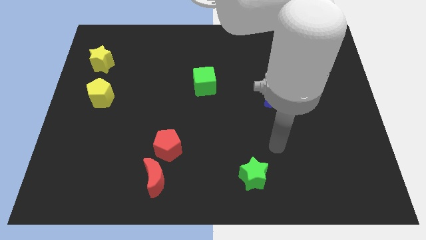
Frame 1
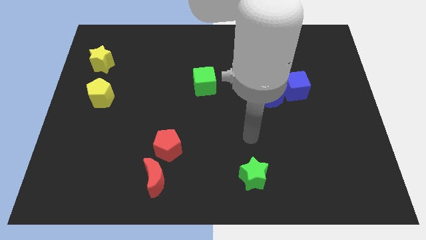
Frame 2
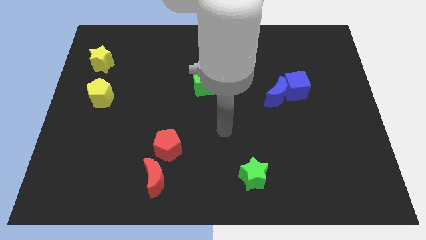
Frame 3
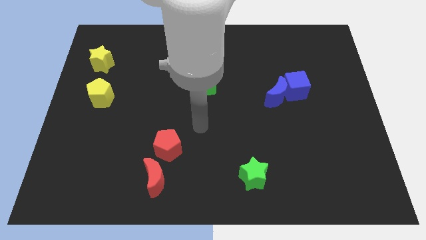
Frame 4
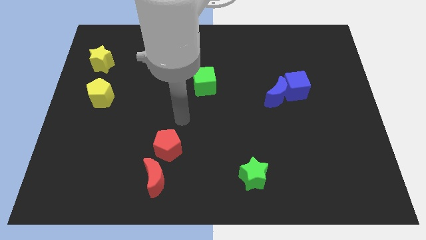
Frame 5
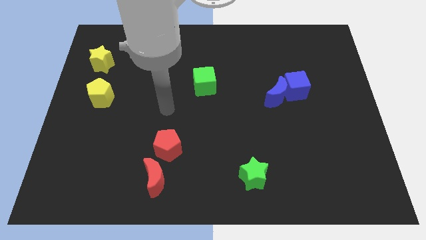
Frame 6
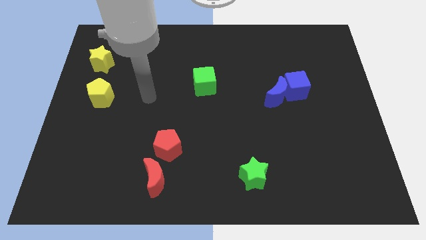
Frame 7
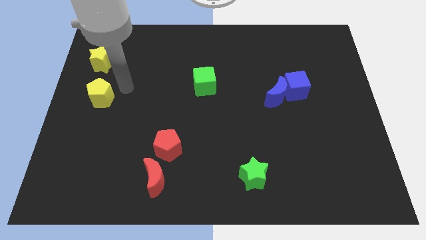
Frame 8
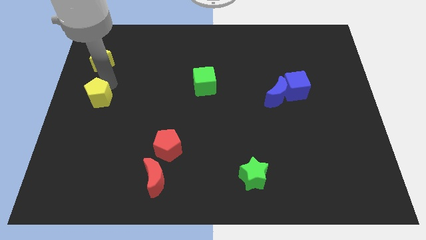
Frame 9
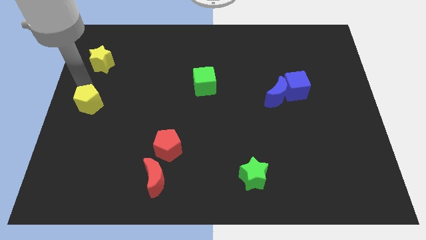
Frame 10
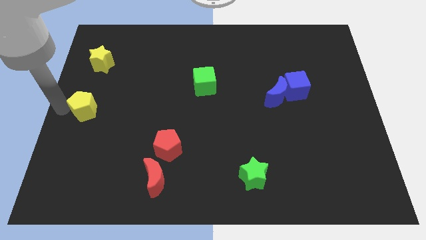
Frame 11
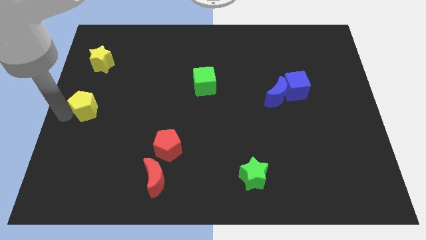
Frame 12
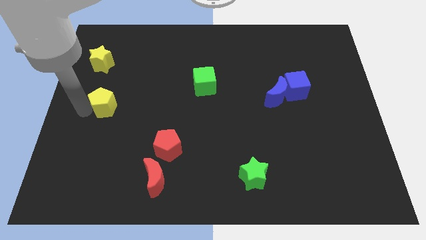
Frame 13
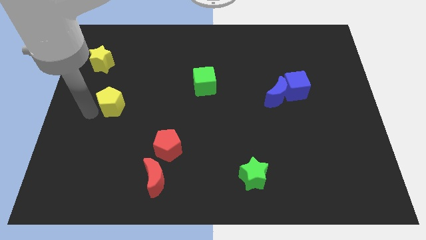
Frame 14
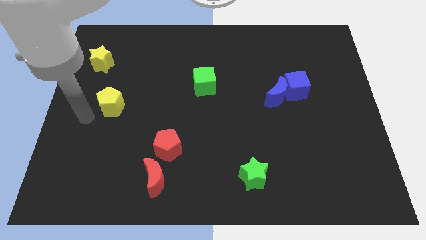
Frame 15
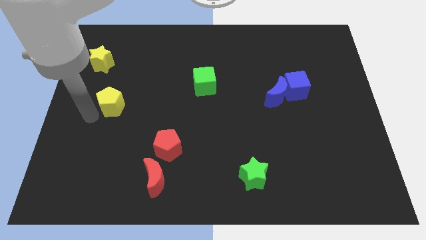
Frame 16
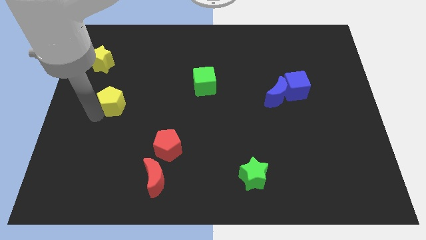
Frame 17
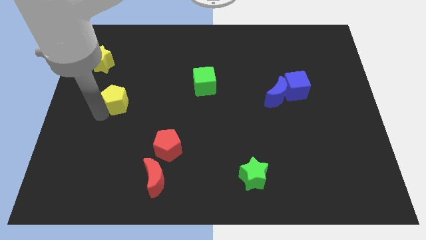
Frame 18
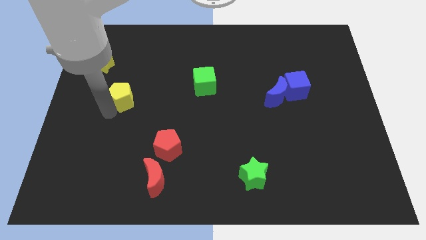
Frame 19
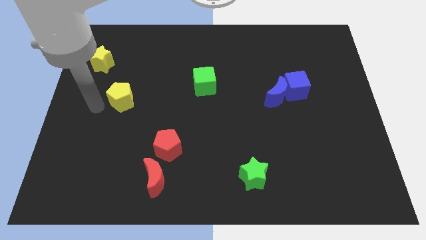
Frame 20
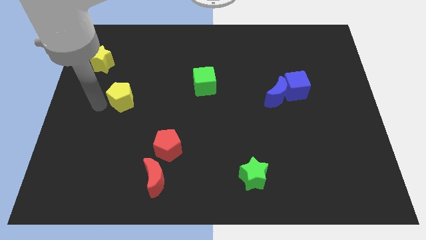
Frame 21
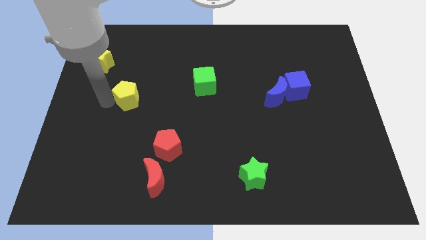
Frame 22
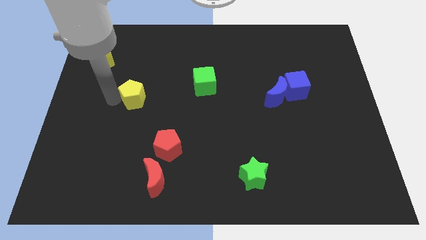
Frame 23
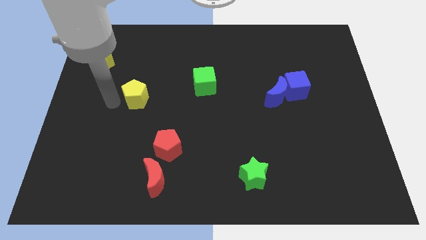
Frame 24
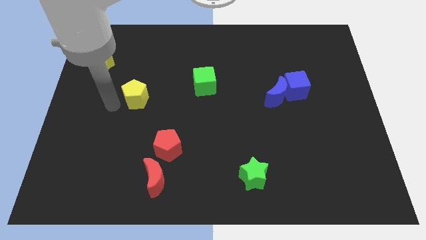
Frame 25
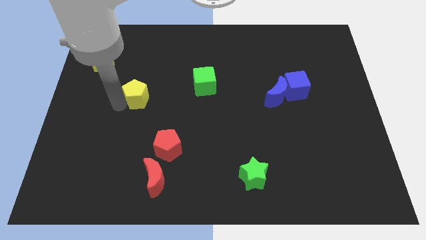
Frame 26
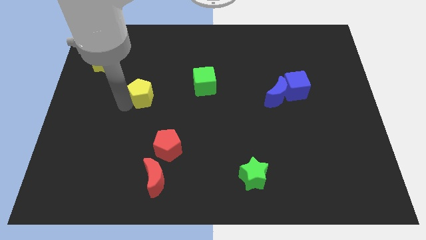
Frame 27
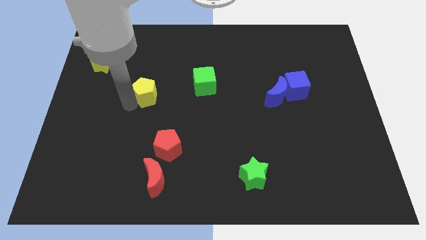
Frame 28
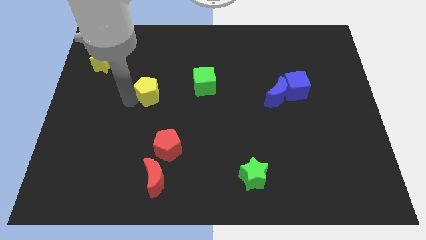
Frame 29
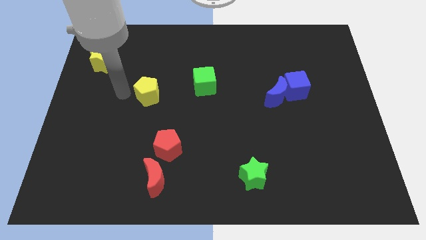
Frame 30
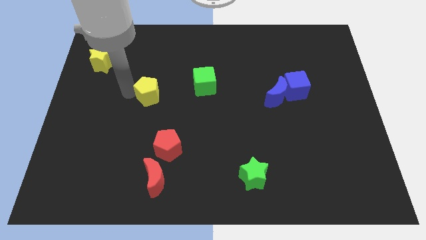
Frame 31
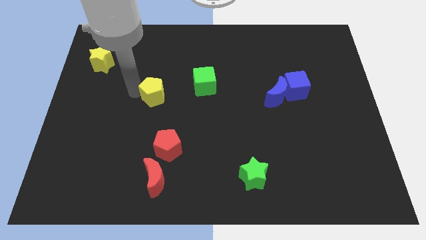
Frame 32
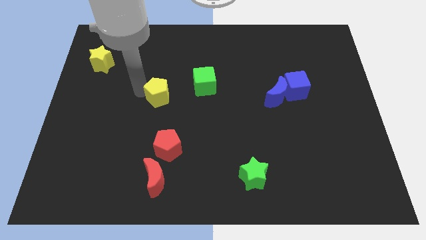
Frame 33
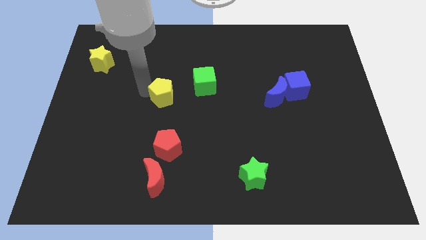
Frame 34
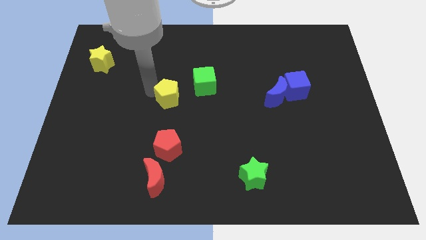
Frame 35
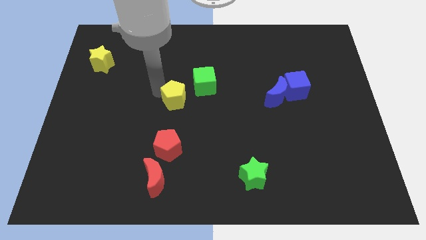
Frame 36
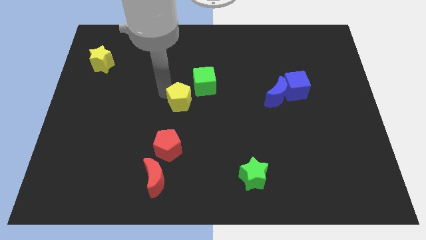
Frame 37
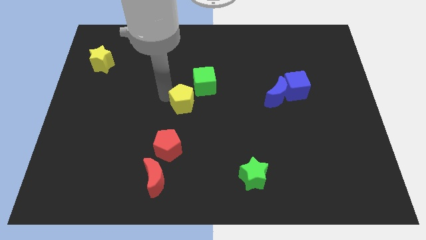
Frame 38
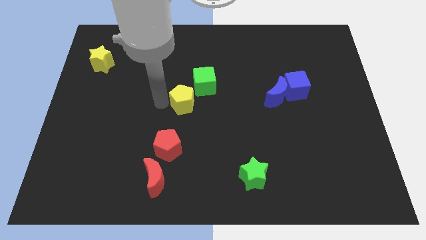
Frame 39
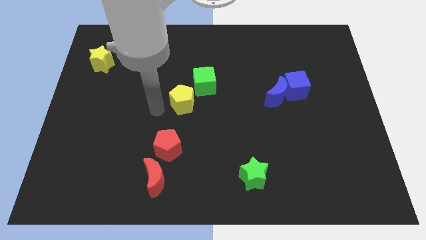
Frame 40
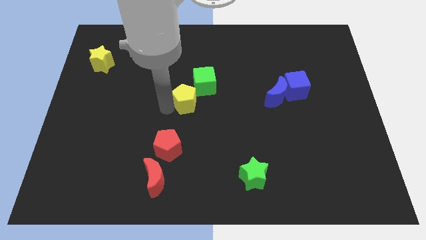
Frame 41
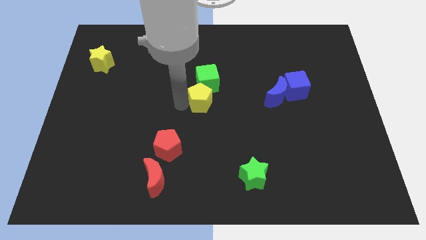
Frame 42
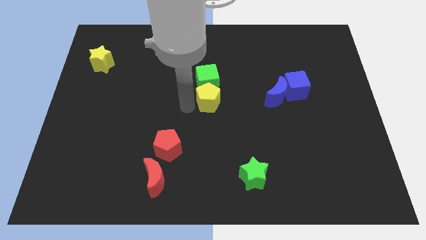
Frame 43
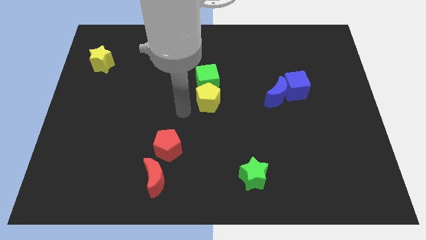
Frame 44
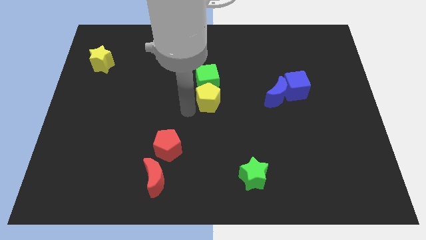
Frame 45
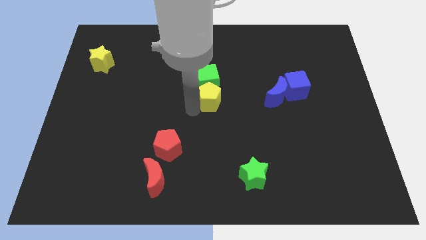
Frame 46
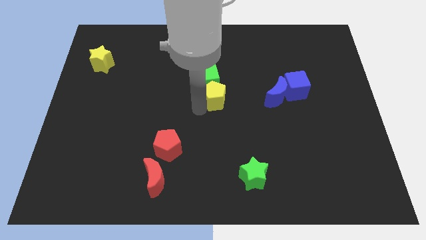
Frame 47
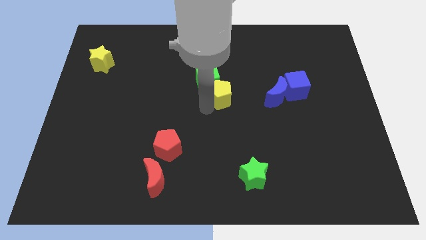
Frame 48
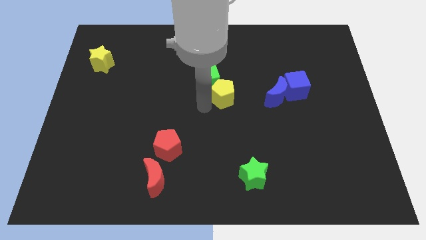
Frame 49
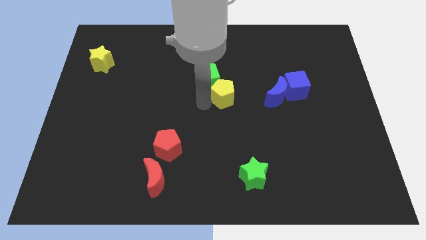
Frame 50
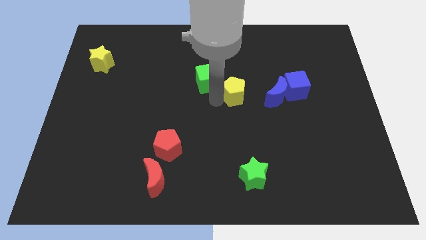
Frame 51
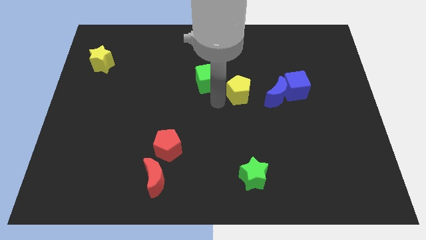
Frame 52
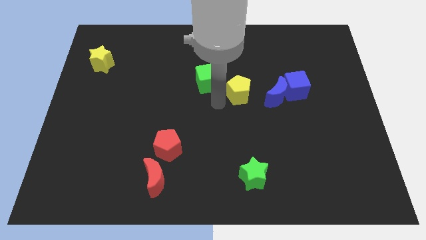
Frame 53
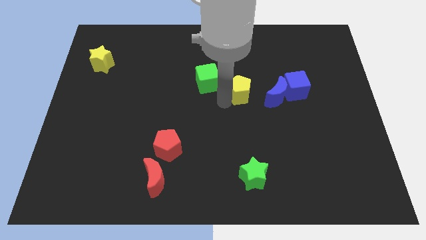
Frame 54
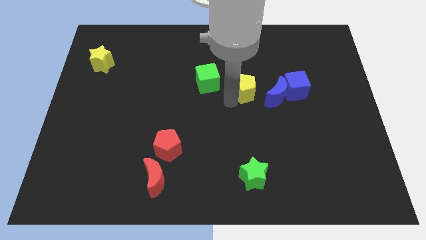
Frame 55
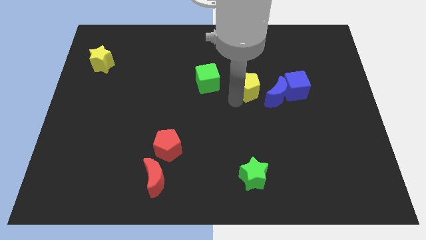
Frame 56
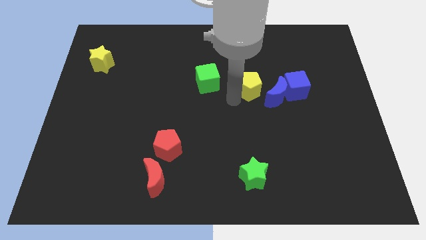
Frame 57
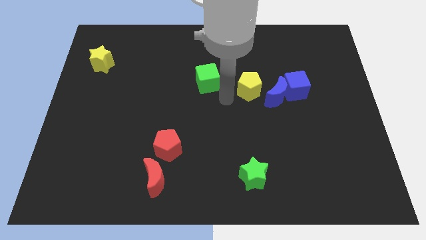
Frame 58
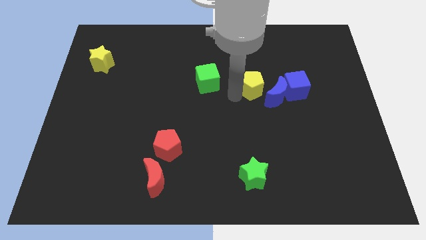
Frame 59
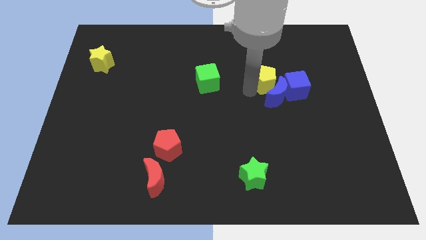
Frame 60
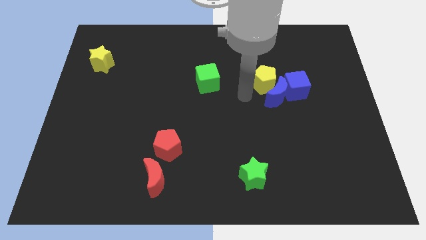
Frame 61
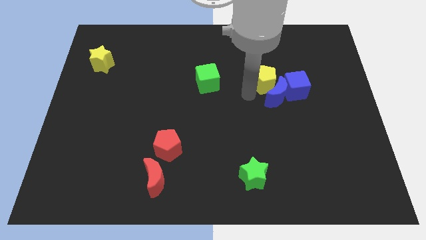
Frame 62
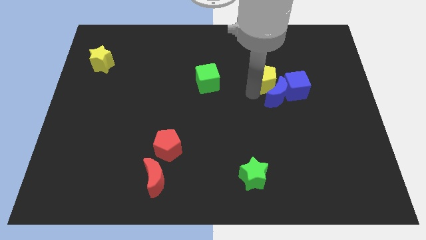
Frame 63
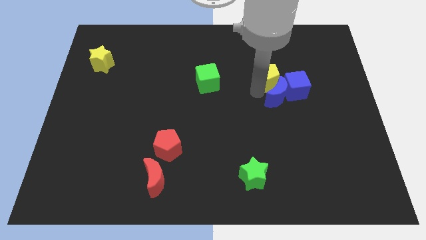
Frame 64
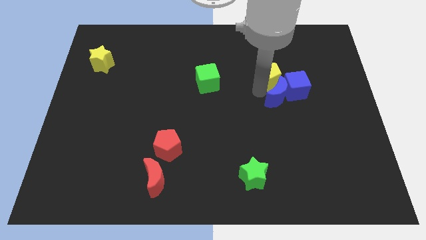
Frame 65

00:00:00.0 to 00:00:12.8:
slide the yellow pentagon to the top right of the blue moon
